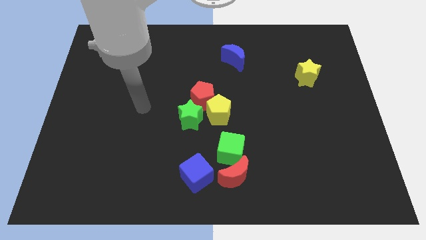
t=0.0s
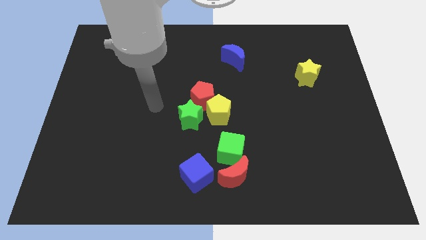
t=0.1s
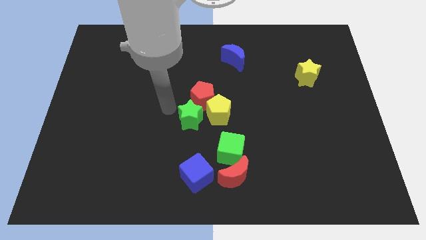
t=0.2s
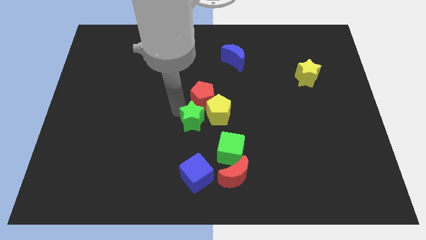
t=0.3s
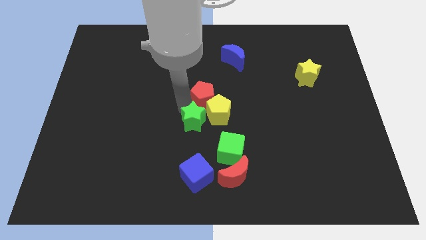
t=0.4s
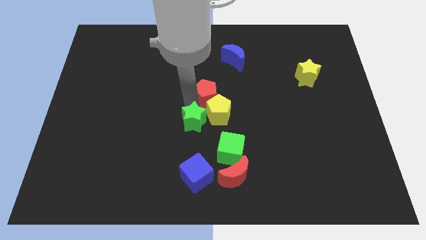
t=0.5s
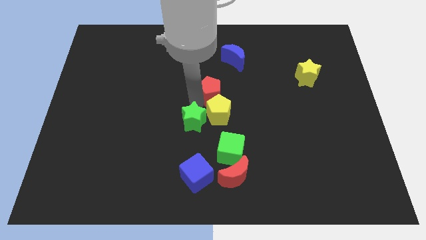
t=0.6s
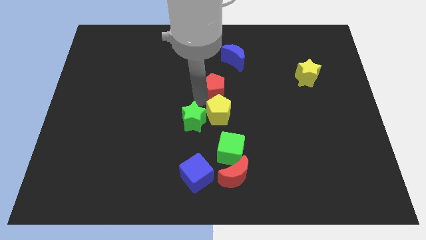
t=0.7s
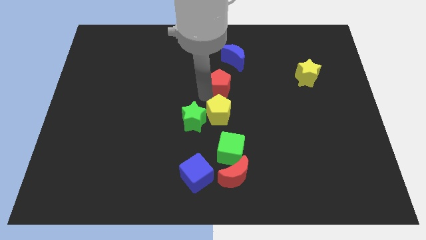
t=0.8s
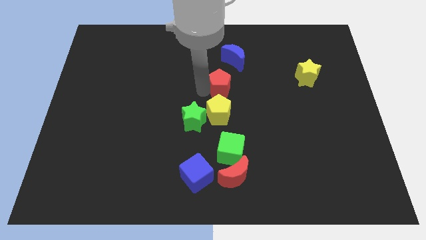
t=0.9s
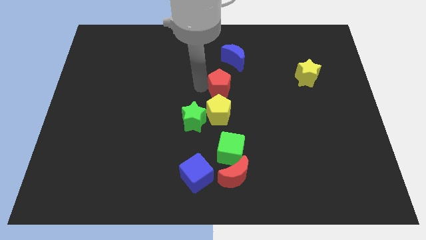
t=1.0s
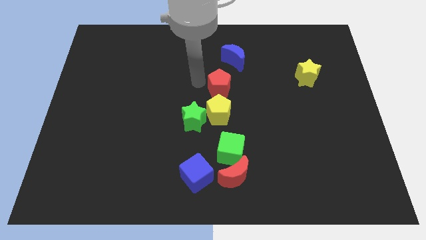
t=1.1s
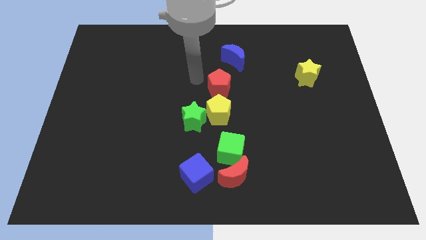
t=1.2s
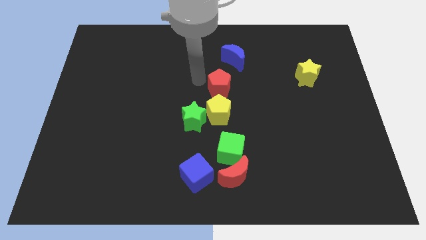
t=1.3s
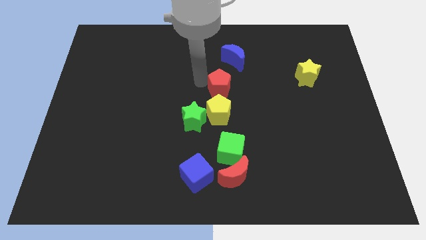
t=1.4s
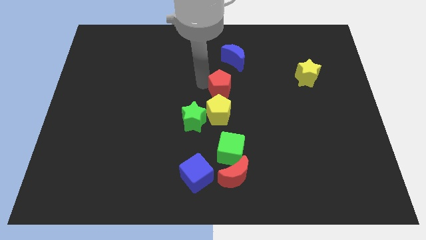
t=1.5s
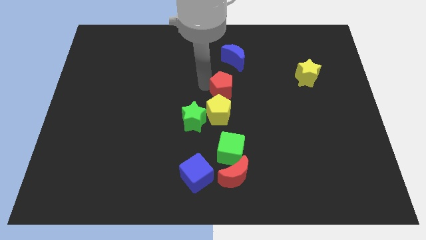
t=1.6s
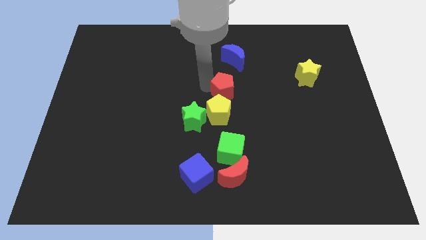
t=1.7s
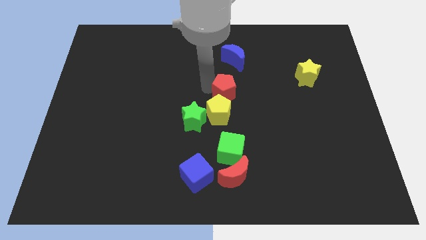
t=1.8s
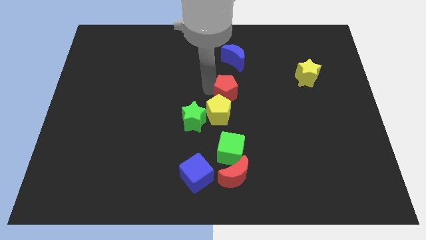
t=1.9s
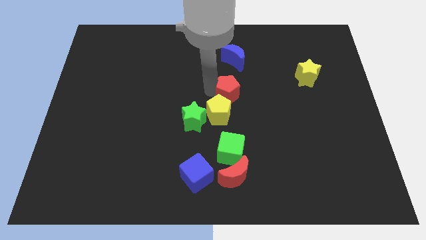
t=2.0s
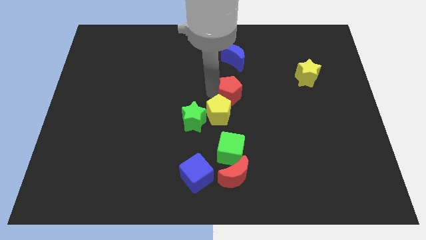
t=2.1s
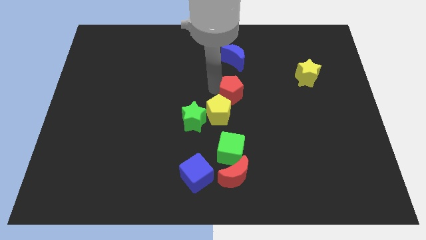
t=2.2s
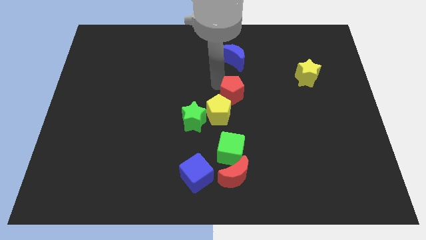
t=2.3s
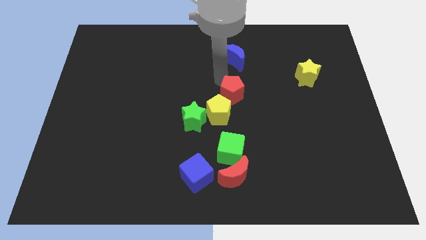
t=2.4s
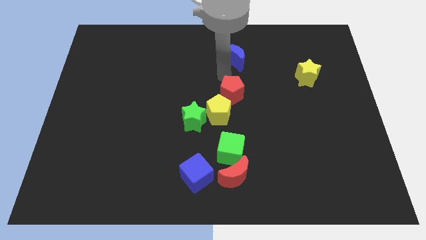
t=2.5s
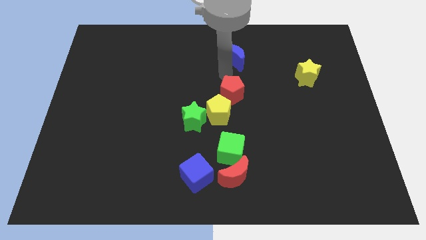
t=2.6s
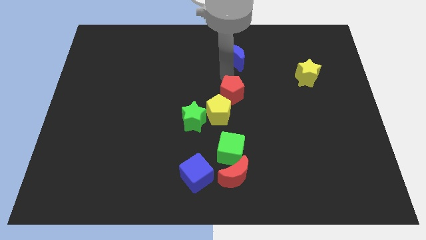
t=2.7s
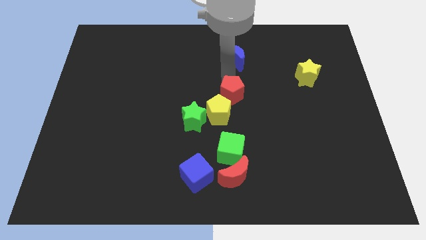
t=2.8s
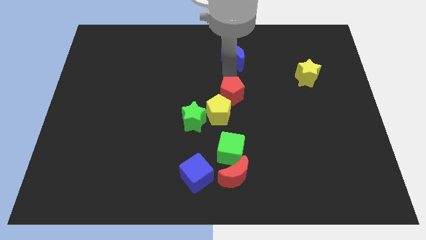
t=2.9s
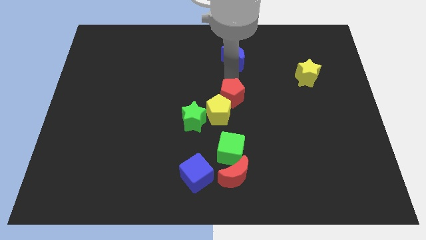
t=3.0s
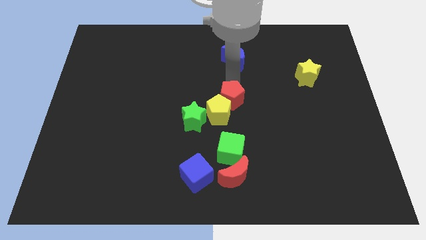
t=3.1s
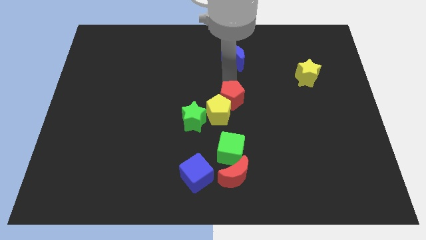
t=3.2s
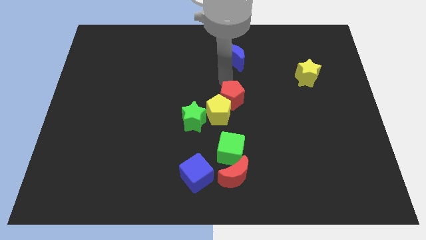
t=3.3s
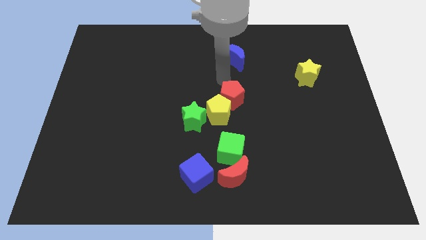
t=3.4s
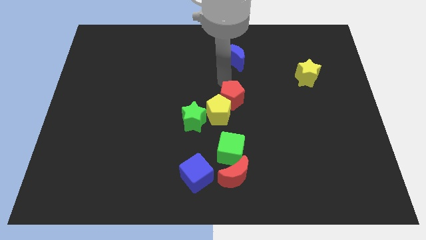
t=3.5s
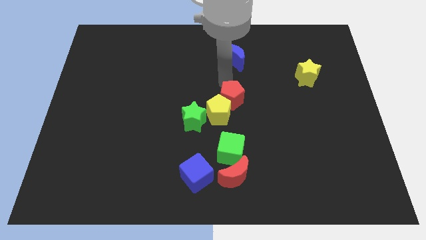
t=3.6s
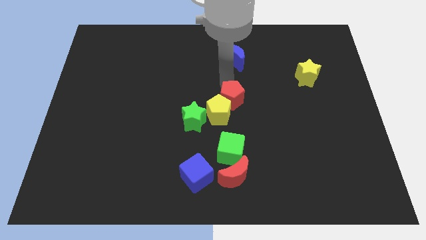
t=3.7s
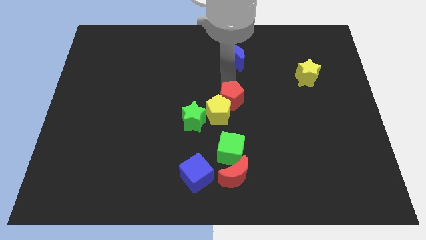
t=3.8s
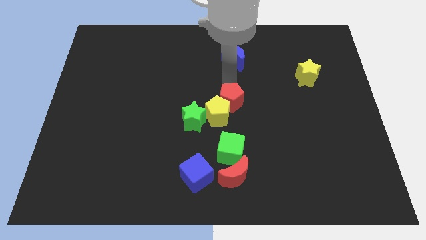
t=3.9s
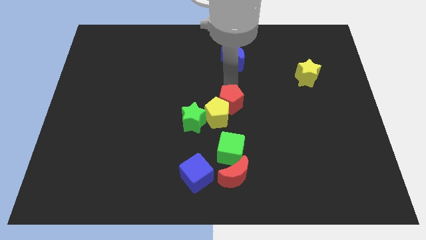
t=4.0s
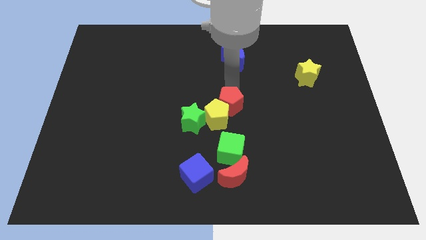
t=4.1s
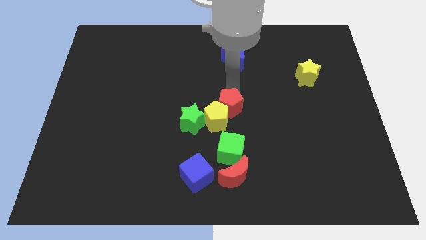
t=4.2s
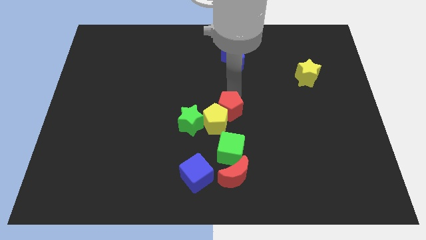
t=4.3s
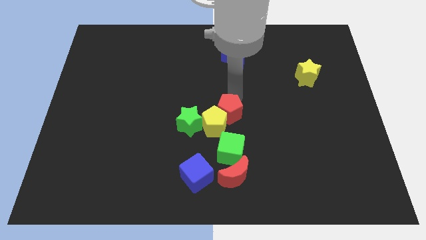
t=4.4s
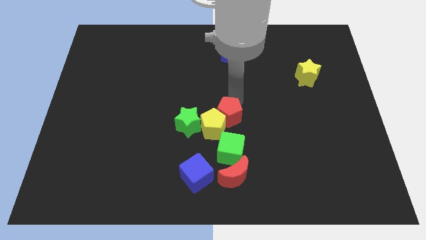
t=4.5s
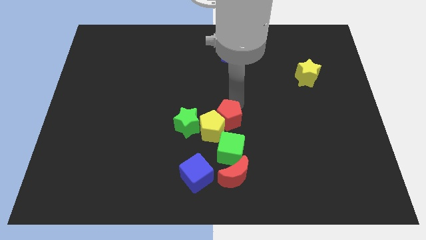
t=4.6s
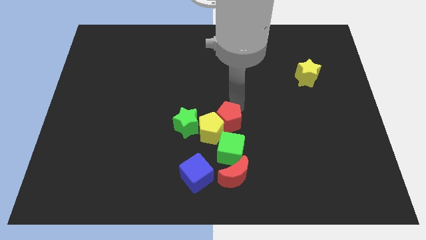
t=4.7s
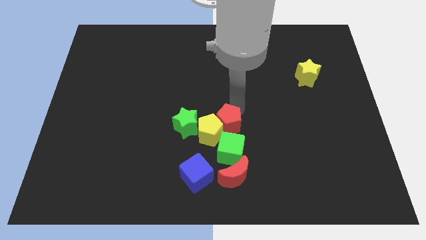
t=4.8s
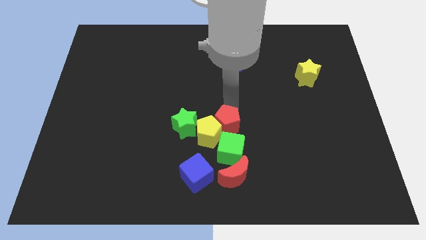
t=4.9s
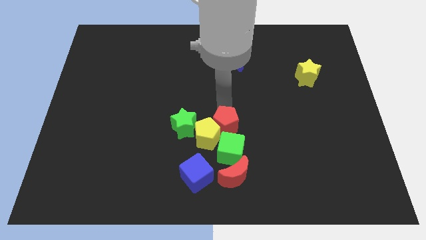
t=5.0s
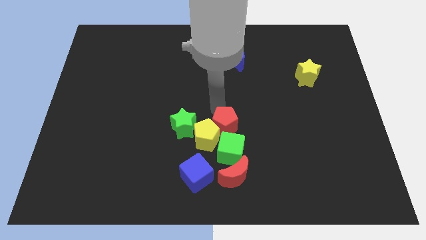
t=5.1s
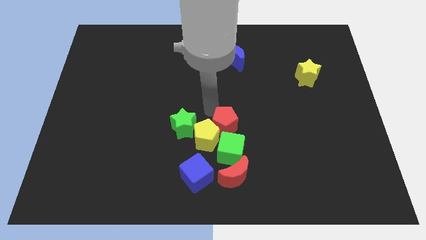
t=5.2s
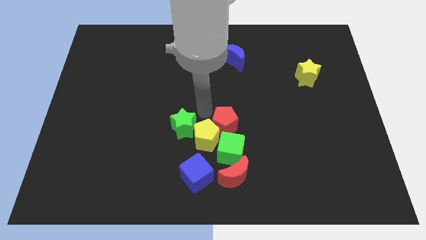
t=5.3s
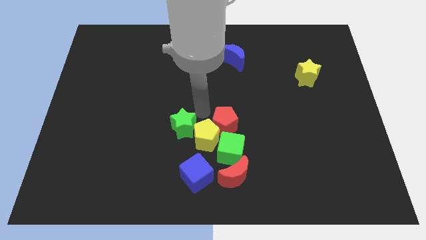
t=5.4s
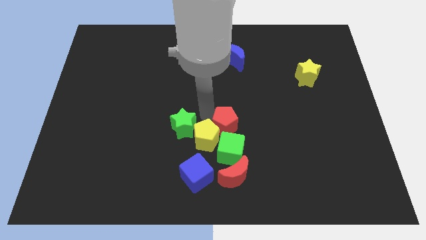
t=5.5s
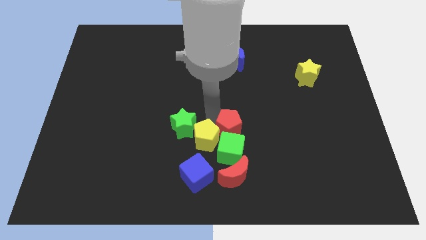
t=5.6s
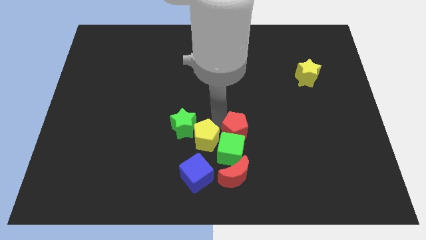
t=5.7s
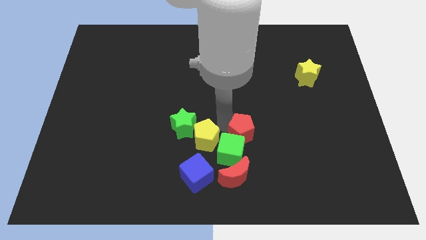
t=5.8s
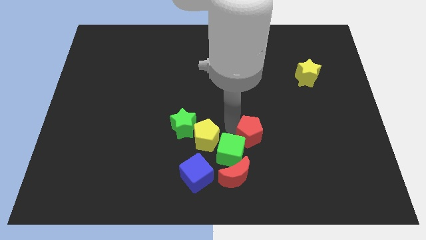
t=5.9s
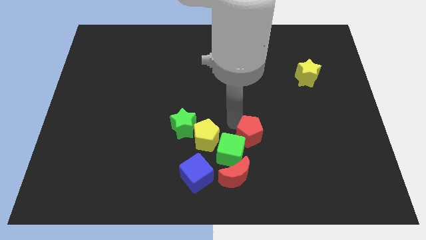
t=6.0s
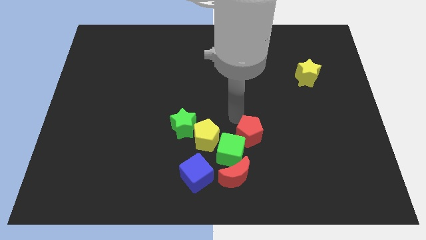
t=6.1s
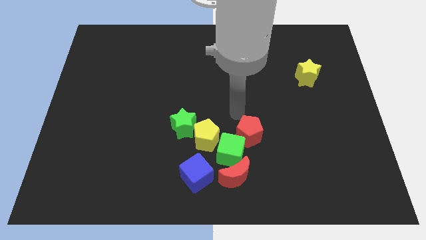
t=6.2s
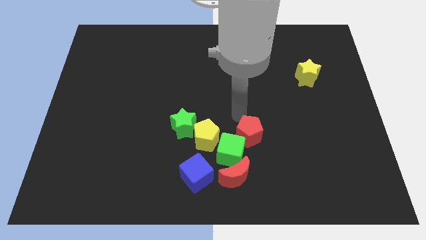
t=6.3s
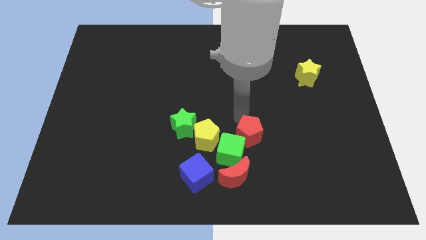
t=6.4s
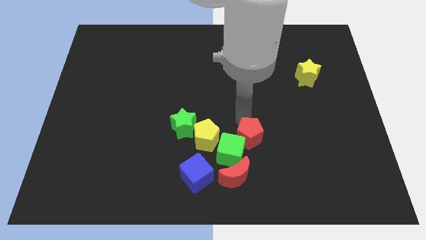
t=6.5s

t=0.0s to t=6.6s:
move the red pentagon diagonally up and to the right of the red moon
